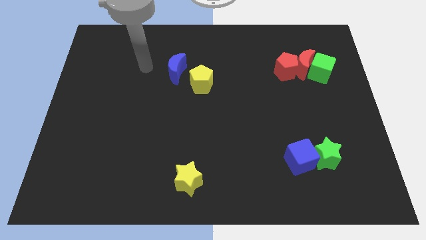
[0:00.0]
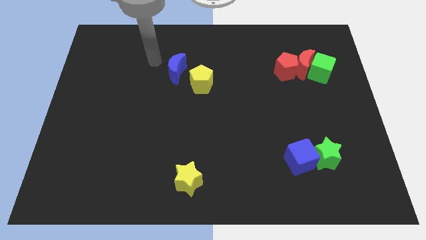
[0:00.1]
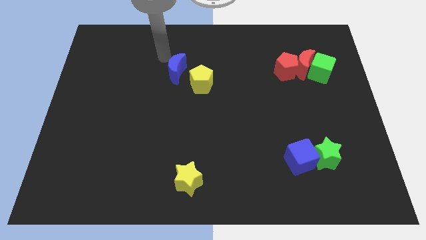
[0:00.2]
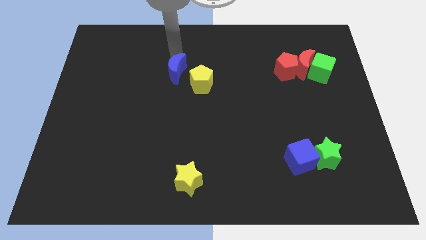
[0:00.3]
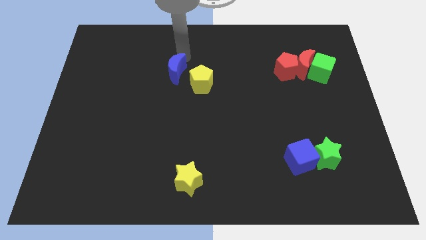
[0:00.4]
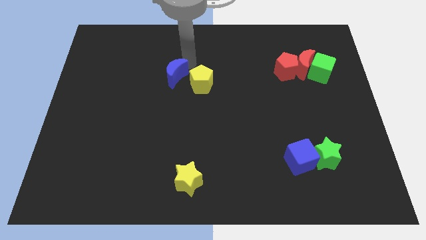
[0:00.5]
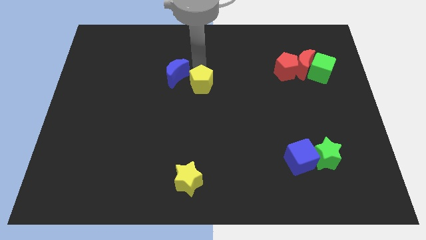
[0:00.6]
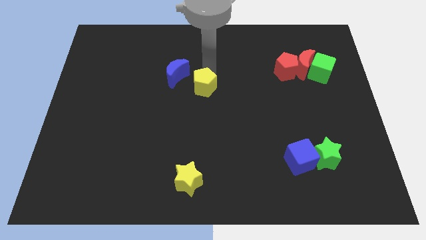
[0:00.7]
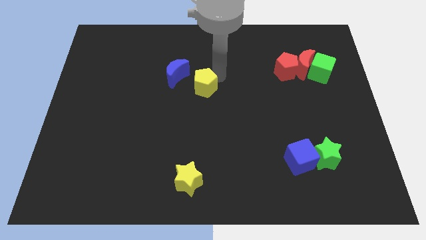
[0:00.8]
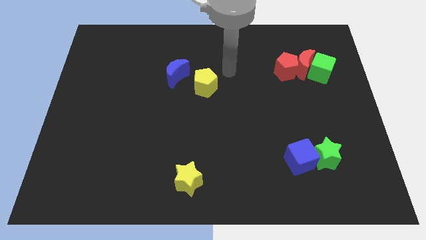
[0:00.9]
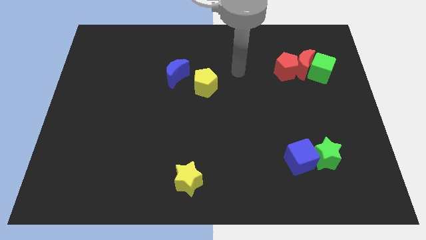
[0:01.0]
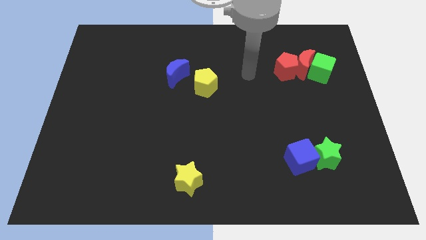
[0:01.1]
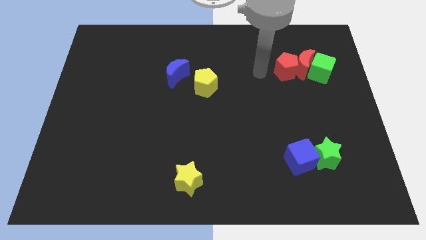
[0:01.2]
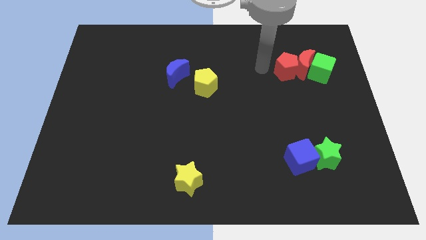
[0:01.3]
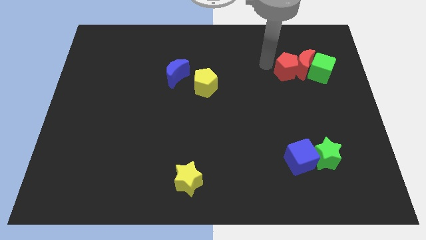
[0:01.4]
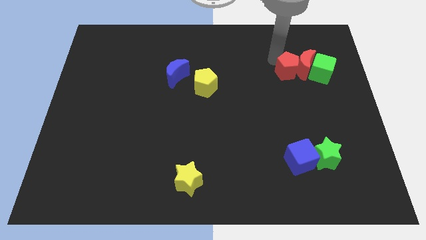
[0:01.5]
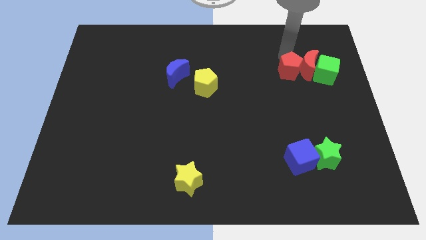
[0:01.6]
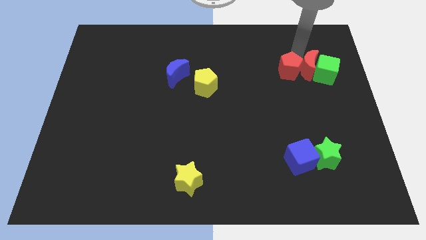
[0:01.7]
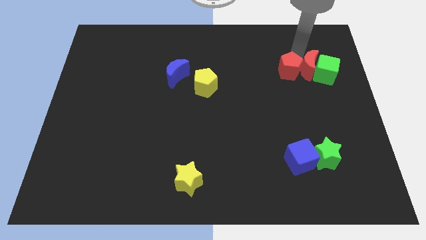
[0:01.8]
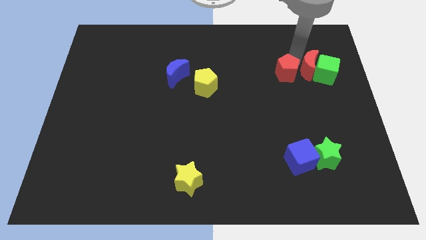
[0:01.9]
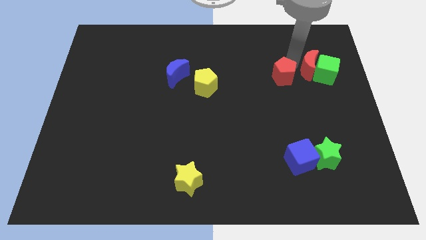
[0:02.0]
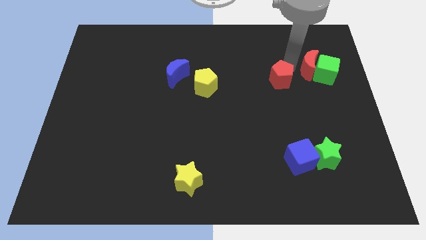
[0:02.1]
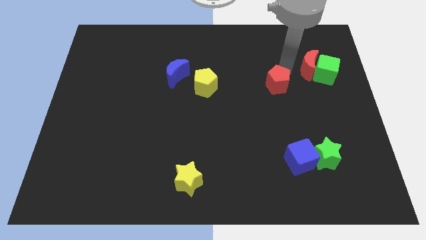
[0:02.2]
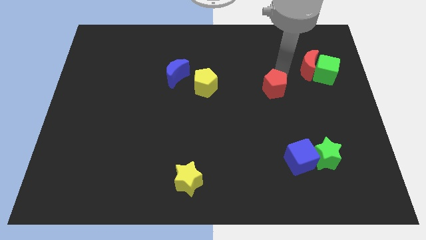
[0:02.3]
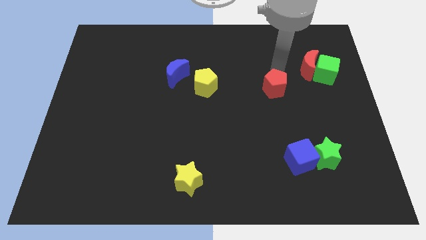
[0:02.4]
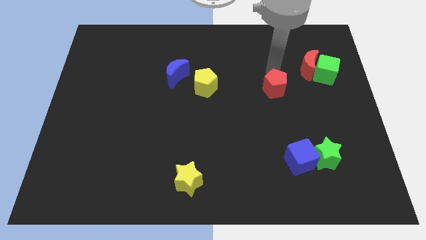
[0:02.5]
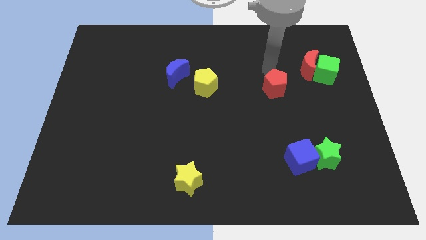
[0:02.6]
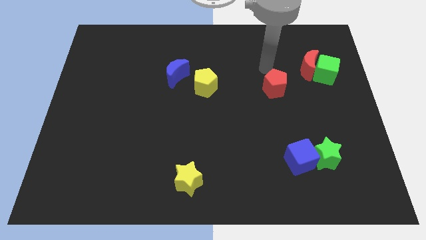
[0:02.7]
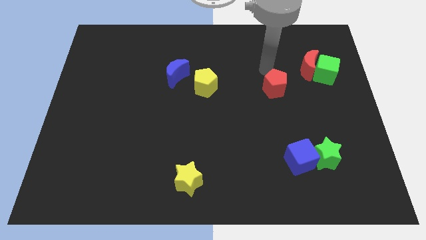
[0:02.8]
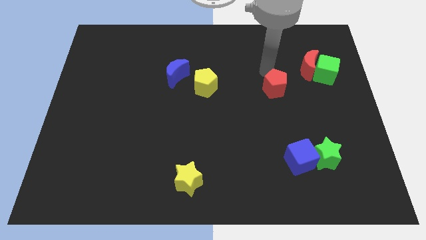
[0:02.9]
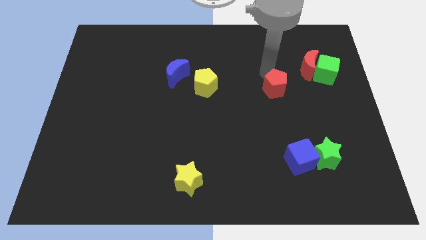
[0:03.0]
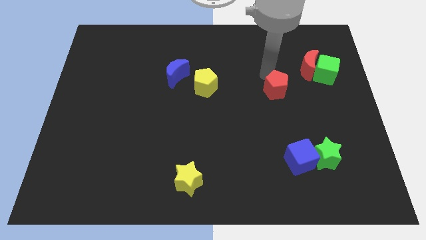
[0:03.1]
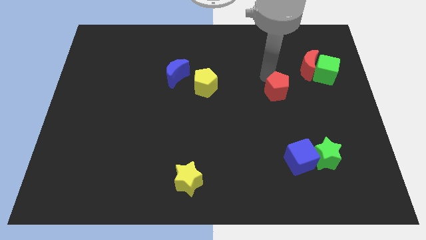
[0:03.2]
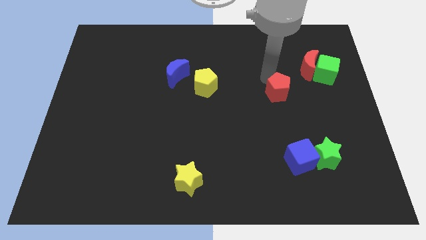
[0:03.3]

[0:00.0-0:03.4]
push the red pentagon a little bit down

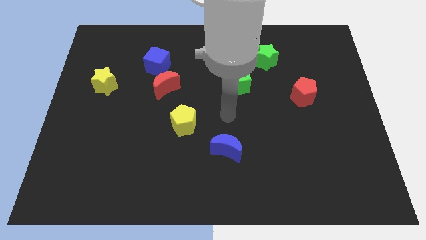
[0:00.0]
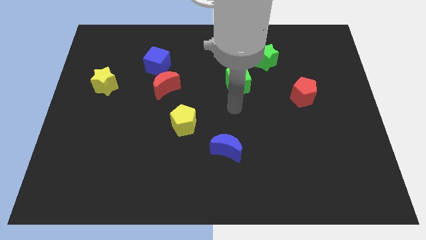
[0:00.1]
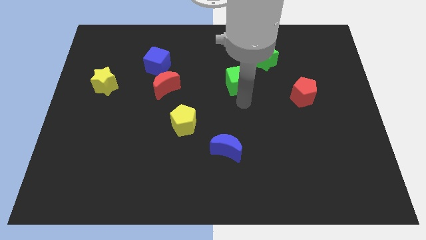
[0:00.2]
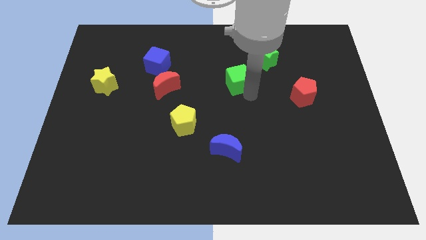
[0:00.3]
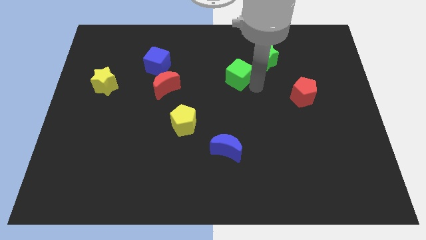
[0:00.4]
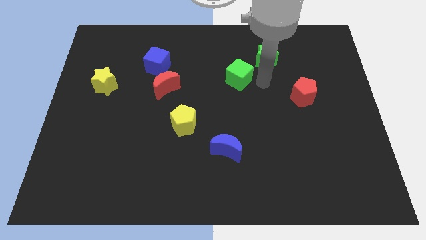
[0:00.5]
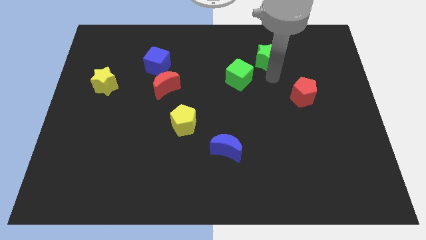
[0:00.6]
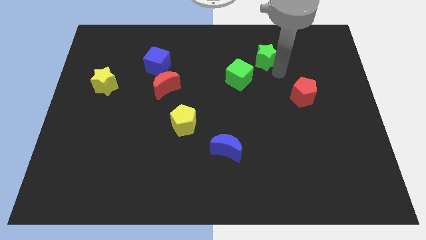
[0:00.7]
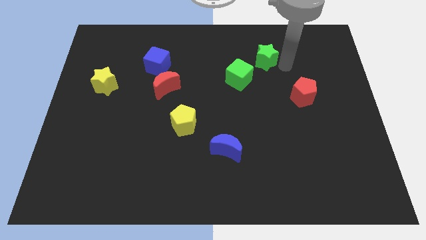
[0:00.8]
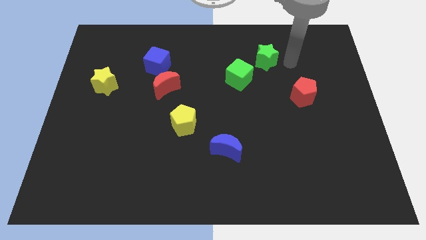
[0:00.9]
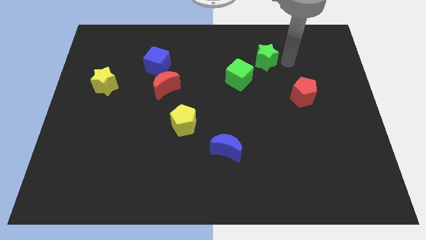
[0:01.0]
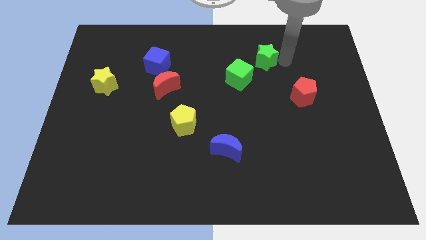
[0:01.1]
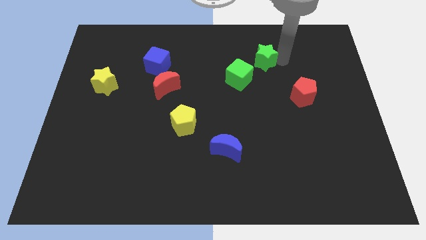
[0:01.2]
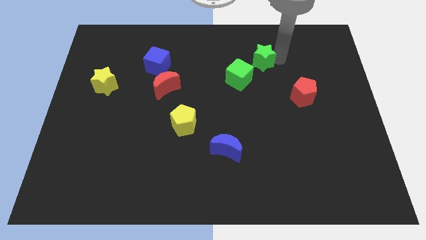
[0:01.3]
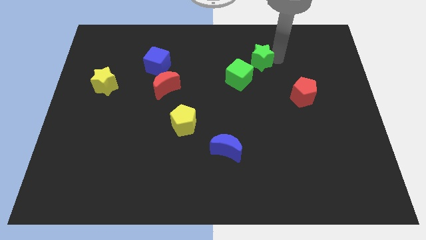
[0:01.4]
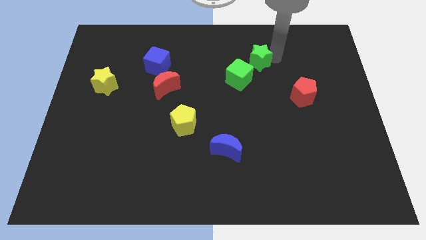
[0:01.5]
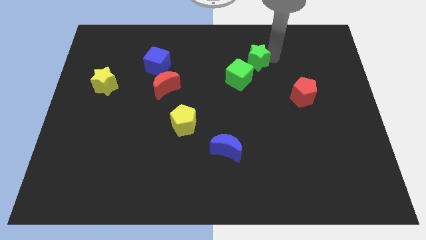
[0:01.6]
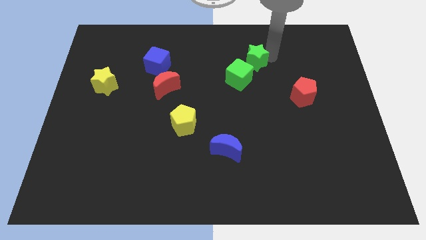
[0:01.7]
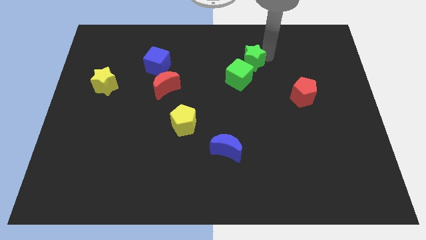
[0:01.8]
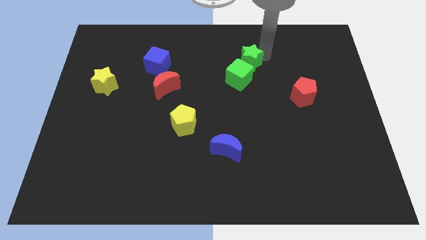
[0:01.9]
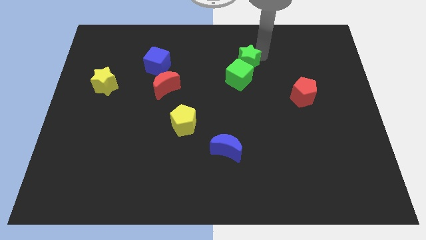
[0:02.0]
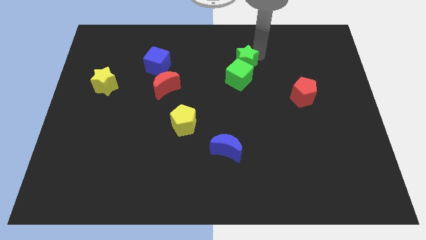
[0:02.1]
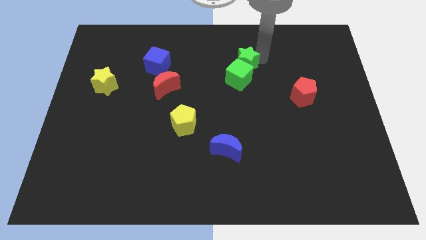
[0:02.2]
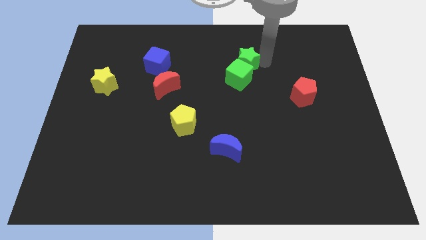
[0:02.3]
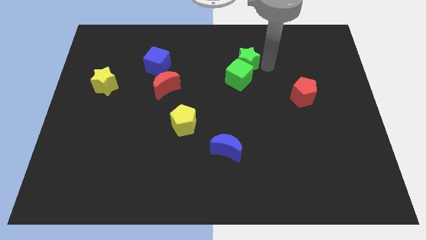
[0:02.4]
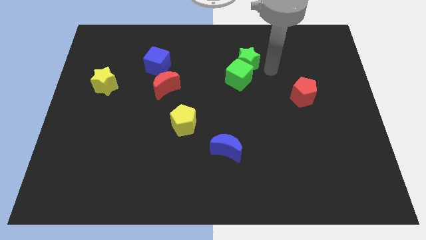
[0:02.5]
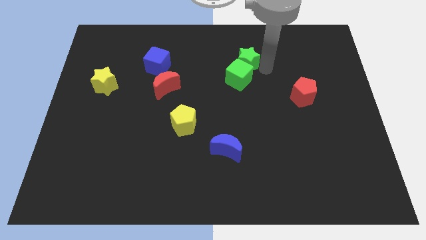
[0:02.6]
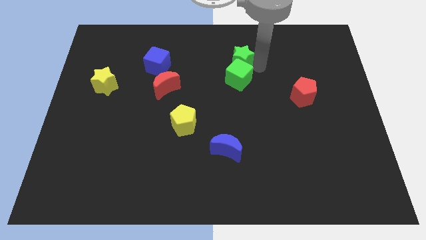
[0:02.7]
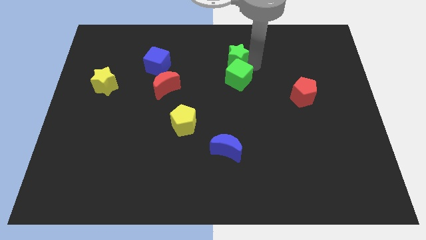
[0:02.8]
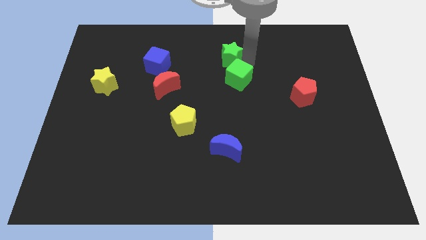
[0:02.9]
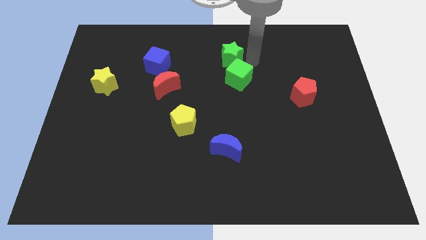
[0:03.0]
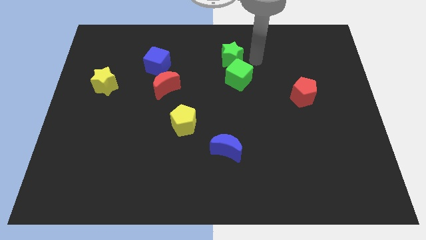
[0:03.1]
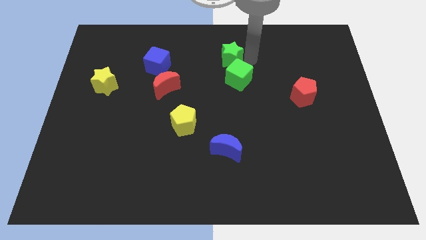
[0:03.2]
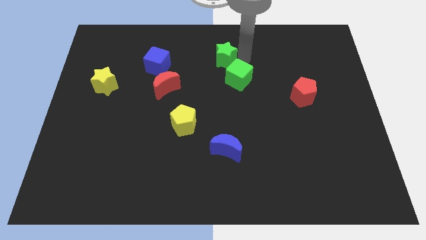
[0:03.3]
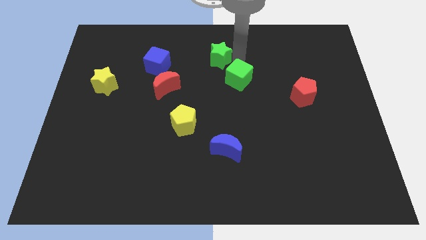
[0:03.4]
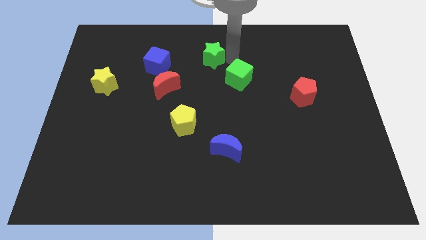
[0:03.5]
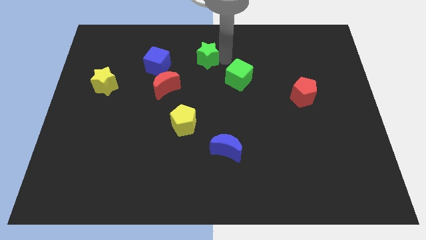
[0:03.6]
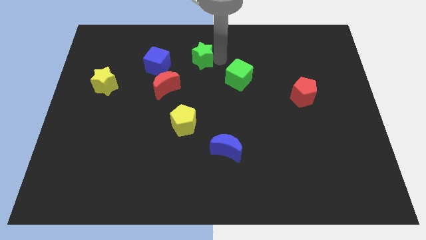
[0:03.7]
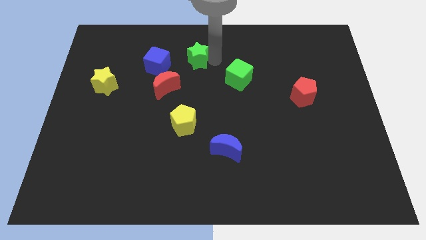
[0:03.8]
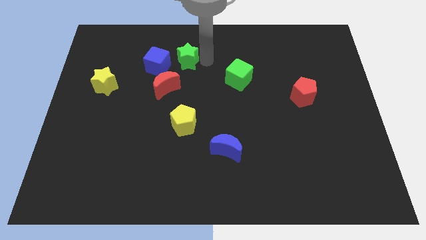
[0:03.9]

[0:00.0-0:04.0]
move the green star to the left

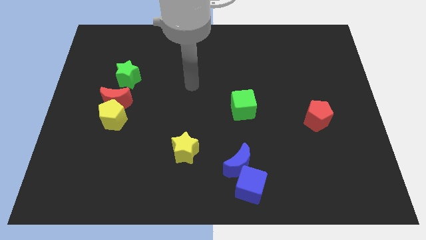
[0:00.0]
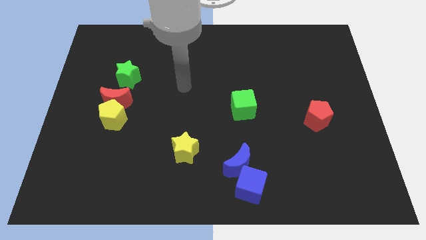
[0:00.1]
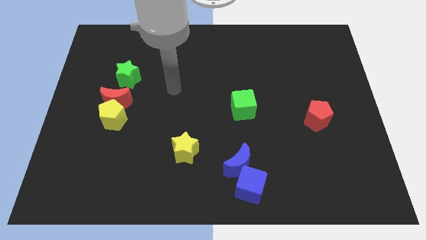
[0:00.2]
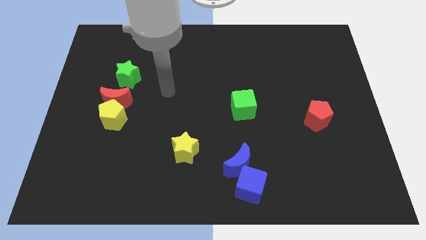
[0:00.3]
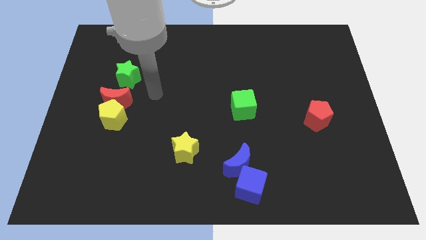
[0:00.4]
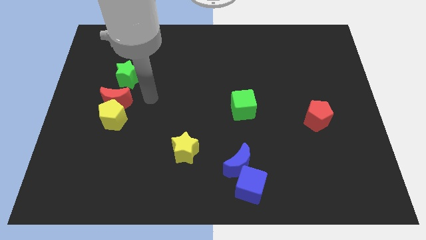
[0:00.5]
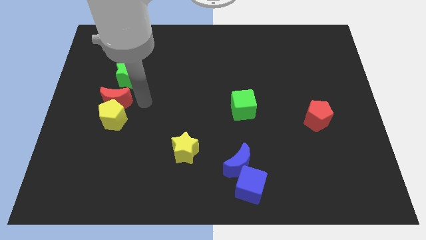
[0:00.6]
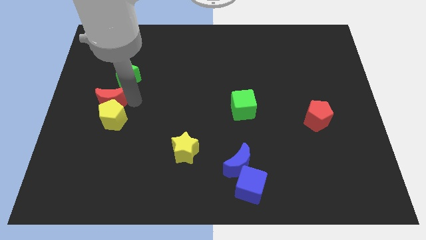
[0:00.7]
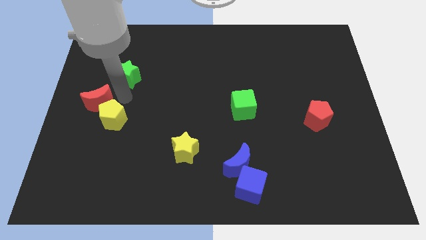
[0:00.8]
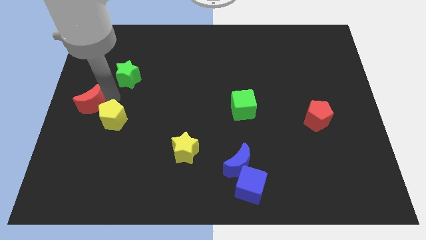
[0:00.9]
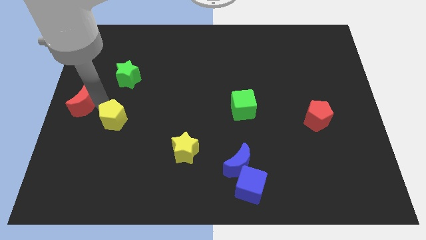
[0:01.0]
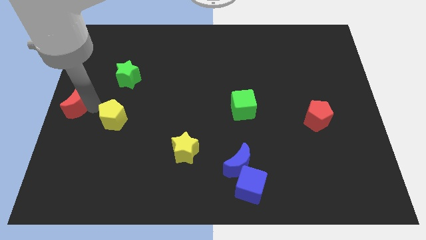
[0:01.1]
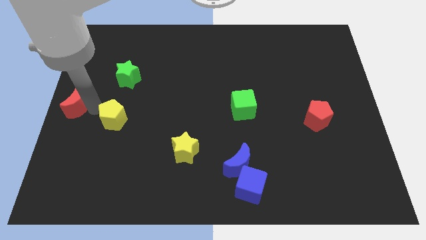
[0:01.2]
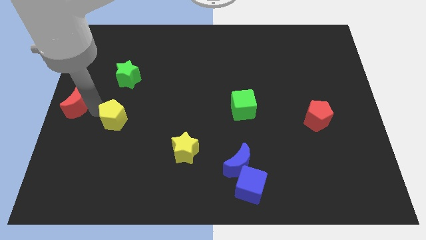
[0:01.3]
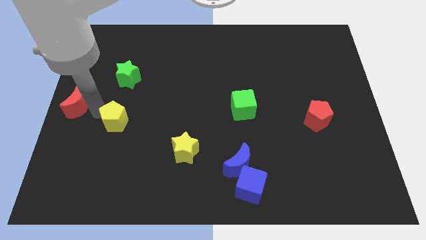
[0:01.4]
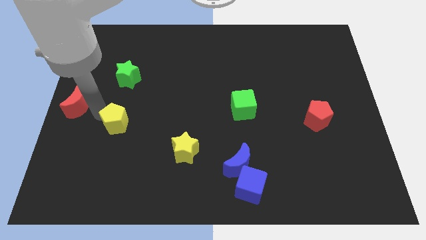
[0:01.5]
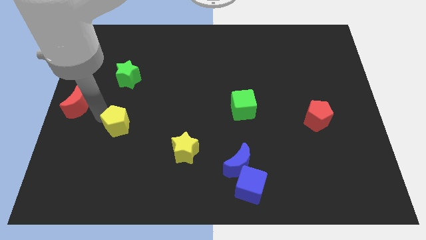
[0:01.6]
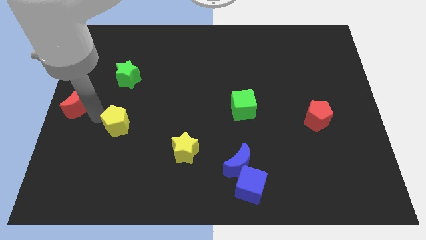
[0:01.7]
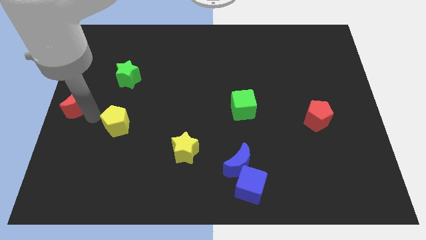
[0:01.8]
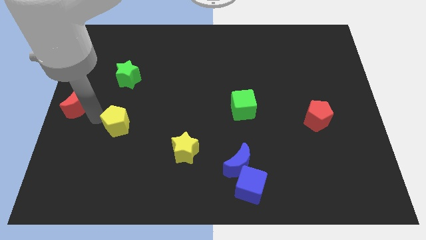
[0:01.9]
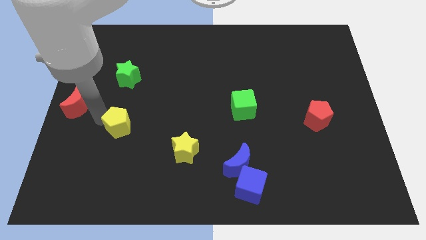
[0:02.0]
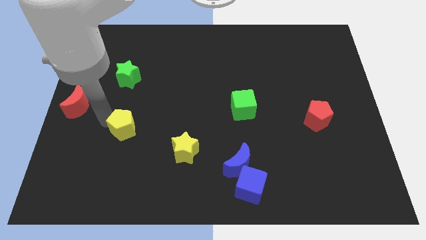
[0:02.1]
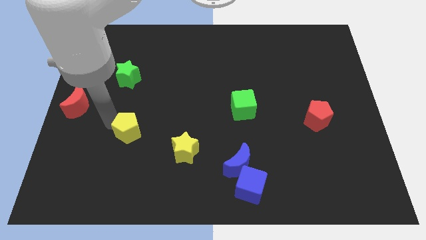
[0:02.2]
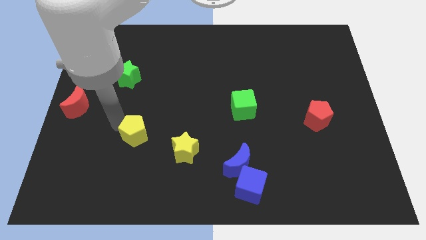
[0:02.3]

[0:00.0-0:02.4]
slightly move the yellow pentagon downwards and right
